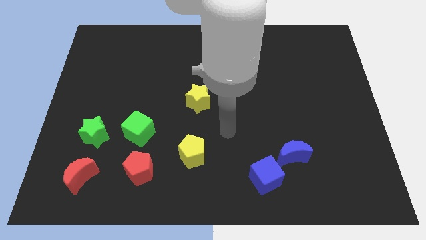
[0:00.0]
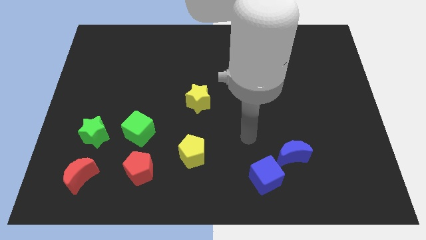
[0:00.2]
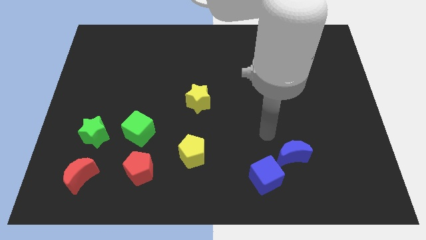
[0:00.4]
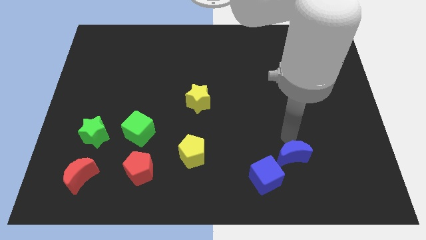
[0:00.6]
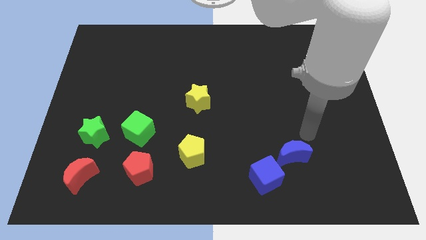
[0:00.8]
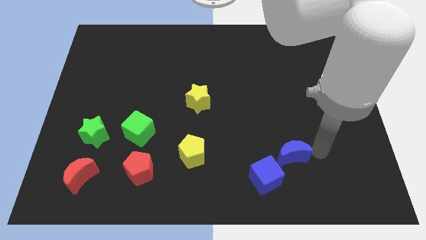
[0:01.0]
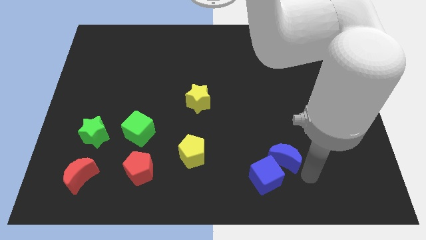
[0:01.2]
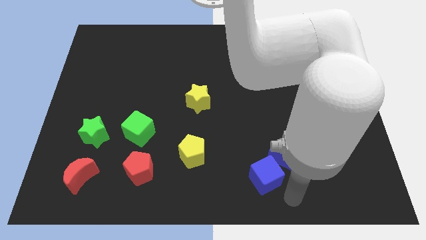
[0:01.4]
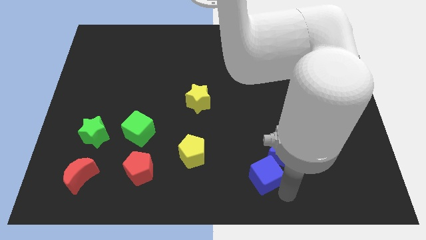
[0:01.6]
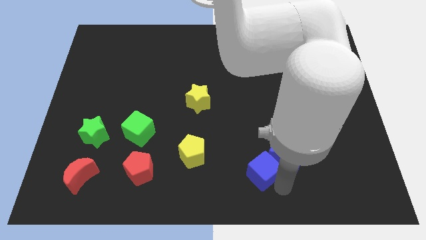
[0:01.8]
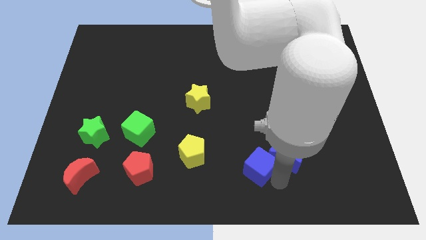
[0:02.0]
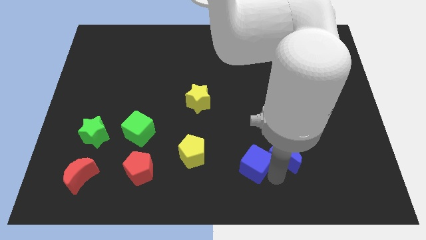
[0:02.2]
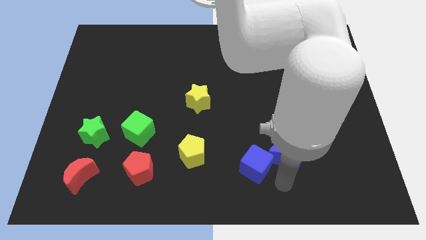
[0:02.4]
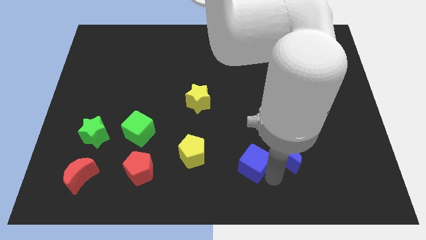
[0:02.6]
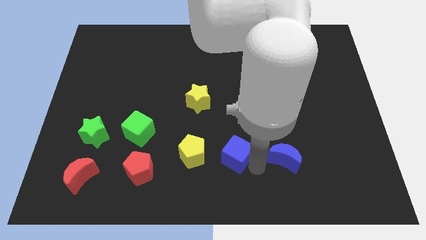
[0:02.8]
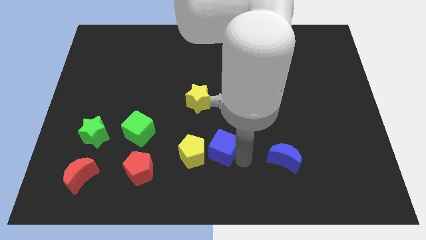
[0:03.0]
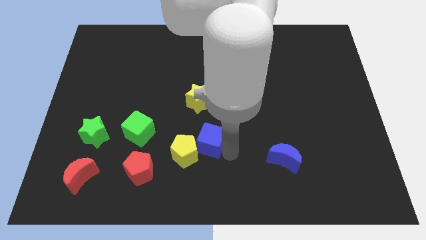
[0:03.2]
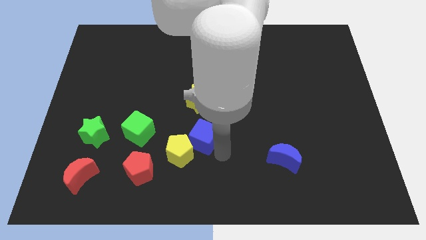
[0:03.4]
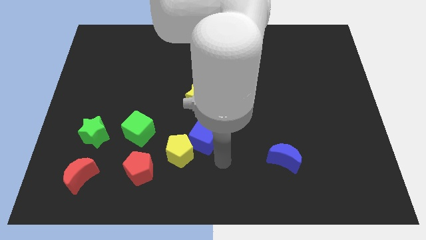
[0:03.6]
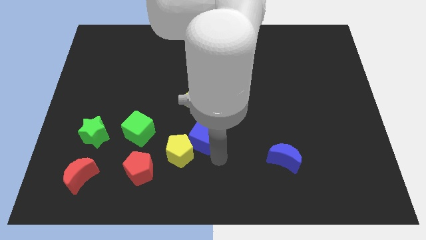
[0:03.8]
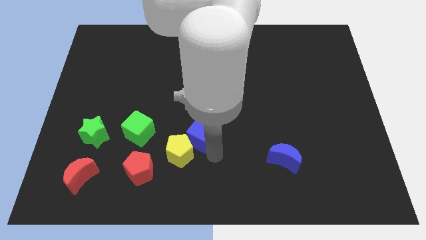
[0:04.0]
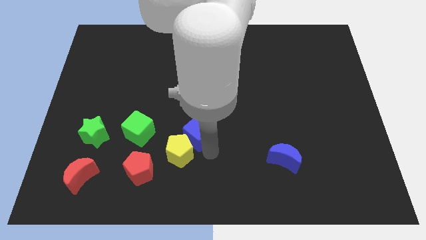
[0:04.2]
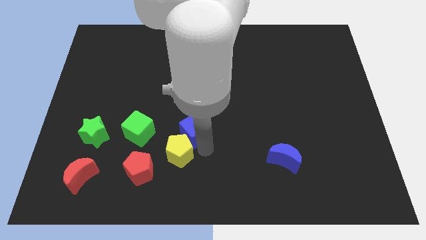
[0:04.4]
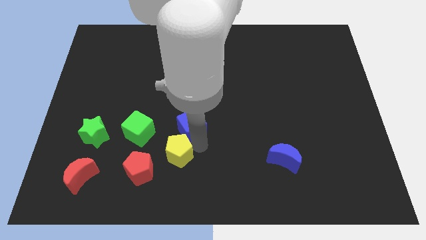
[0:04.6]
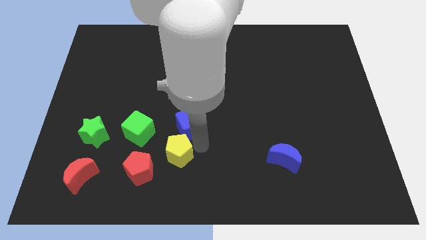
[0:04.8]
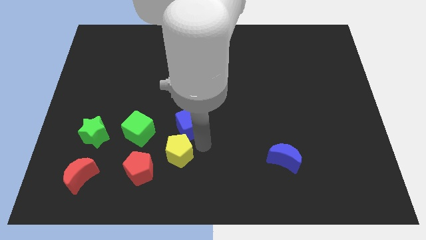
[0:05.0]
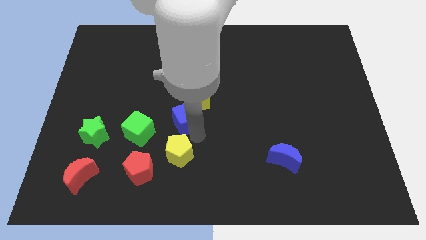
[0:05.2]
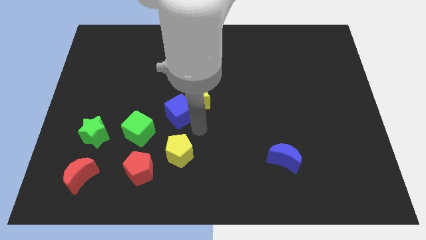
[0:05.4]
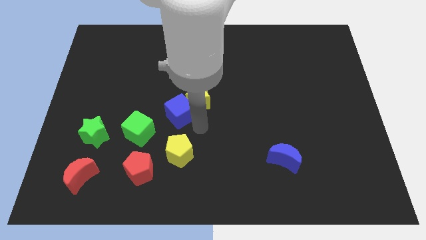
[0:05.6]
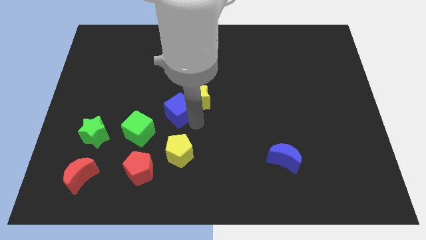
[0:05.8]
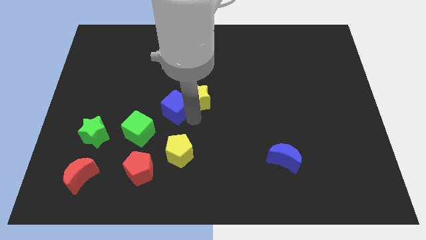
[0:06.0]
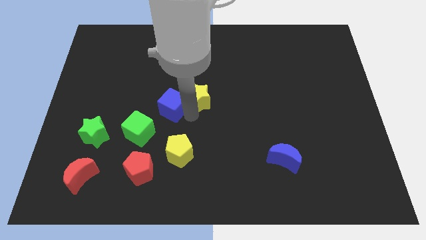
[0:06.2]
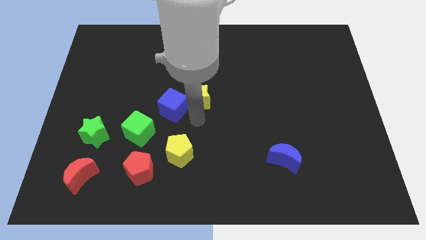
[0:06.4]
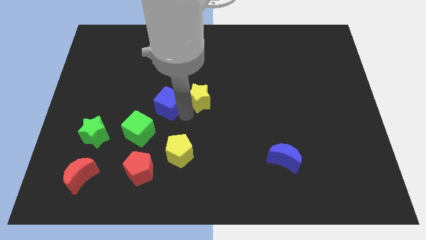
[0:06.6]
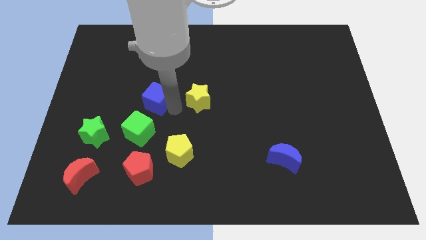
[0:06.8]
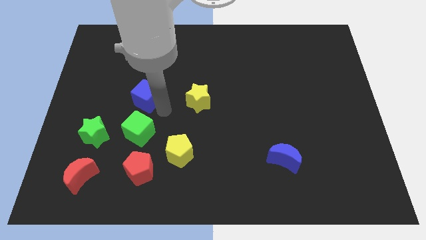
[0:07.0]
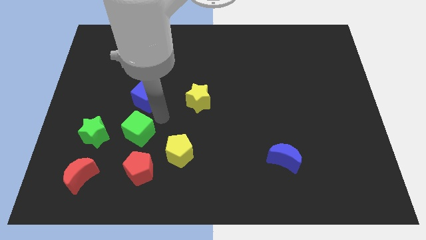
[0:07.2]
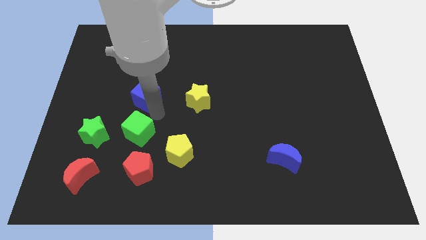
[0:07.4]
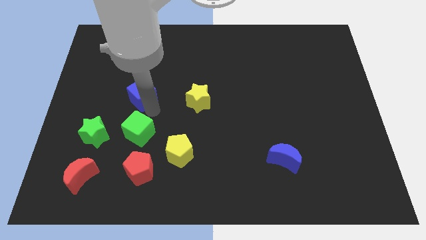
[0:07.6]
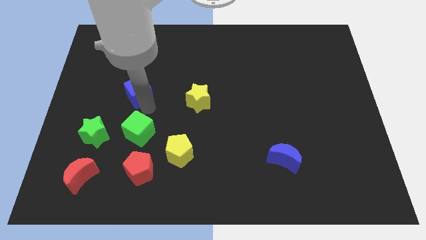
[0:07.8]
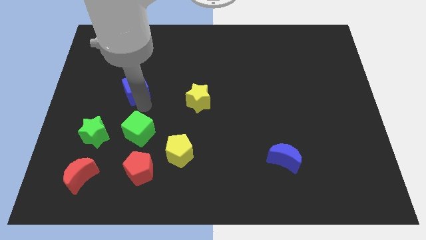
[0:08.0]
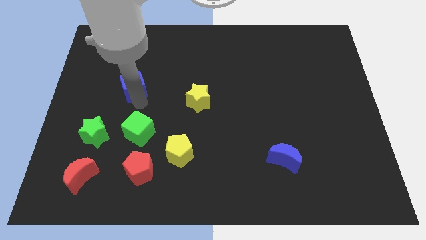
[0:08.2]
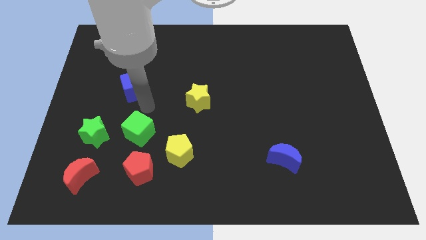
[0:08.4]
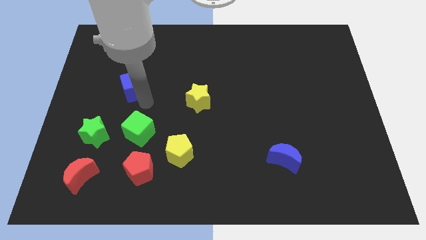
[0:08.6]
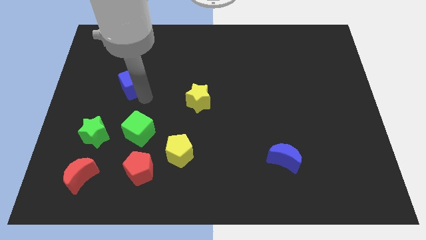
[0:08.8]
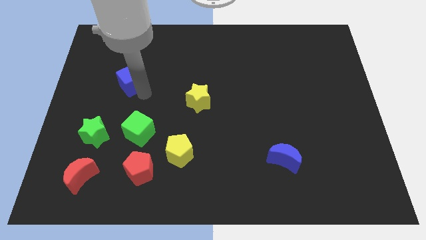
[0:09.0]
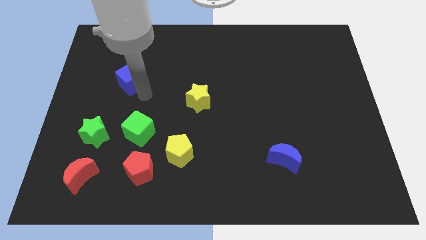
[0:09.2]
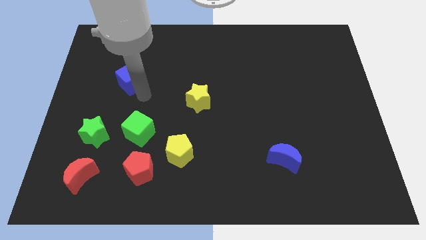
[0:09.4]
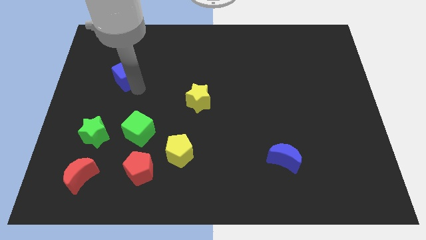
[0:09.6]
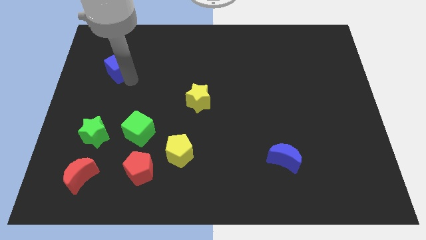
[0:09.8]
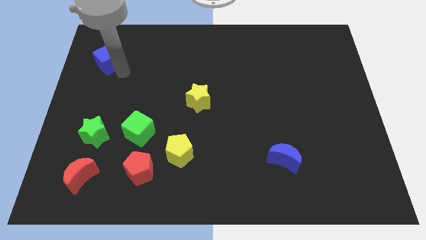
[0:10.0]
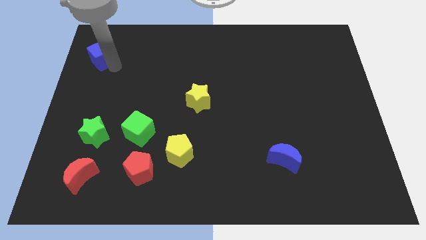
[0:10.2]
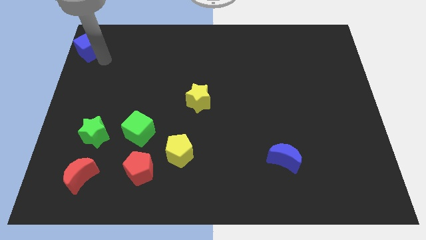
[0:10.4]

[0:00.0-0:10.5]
slide the blue cube to the top left corner
